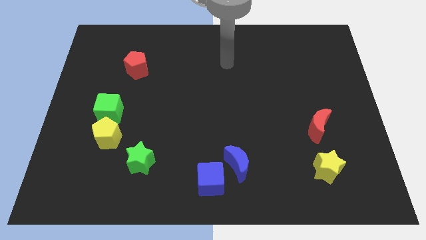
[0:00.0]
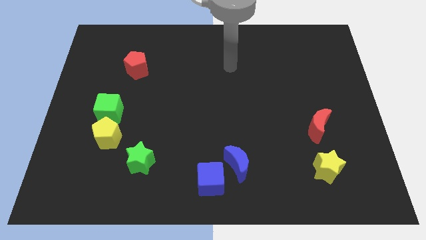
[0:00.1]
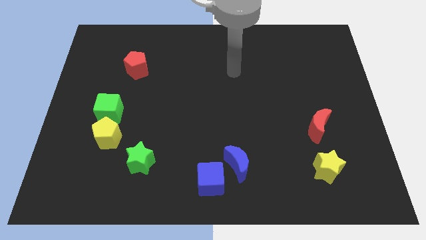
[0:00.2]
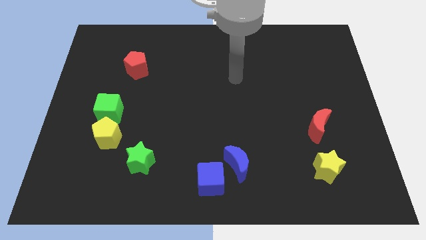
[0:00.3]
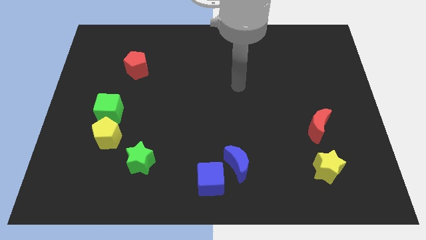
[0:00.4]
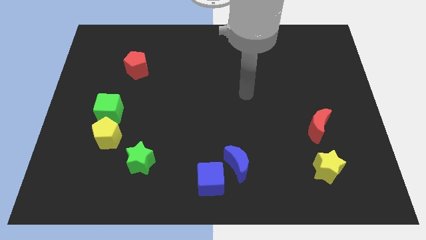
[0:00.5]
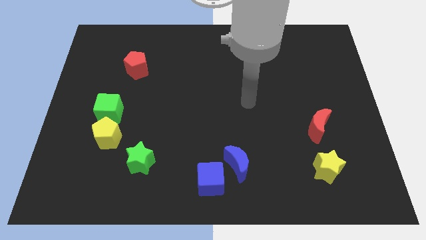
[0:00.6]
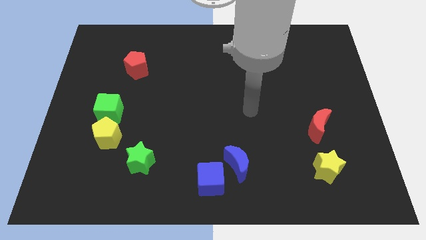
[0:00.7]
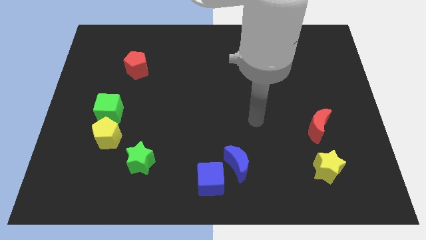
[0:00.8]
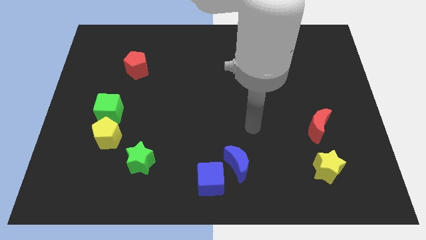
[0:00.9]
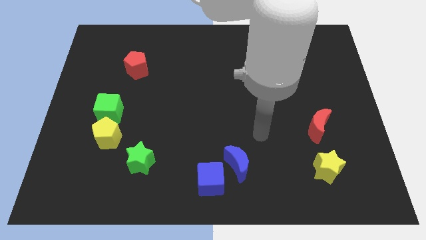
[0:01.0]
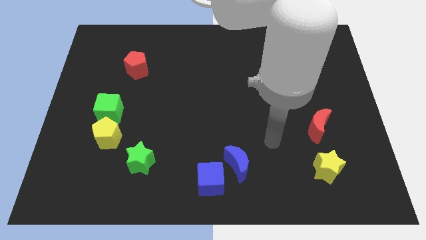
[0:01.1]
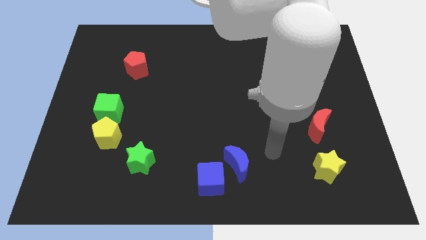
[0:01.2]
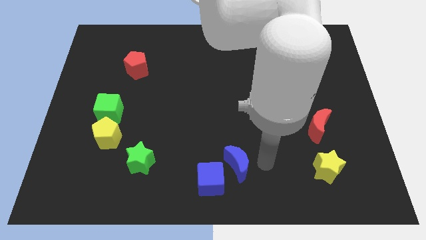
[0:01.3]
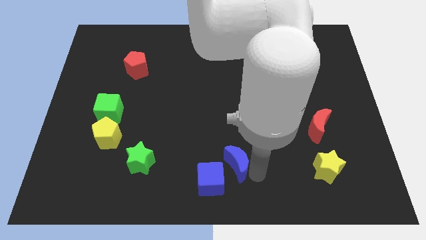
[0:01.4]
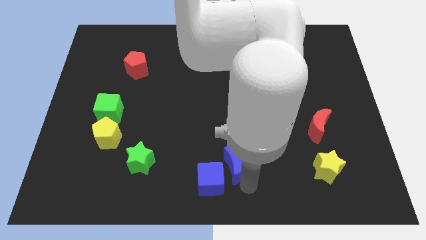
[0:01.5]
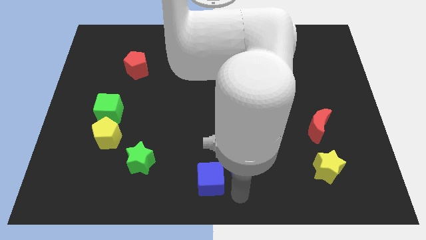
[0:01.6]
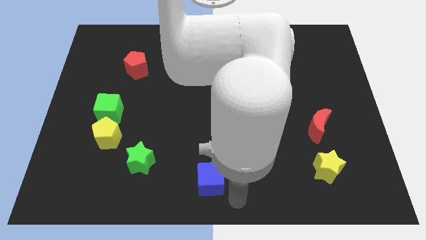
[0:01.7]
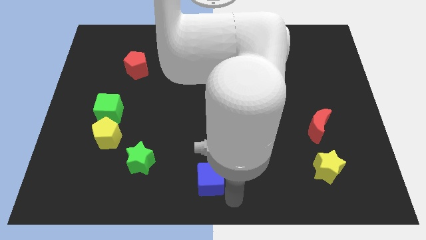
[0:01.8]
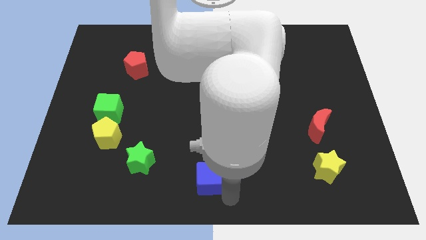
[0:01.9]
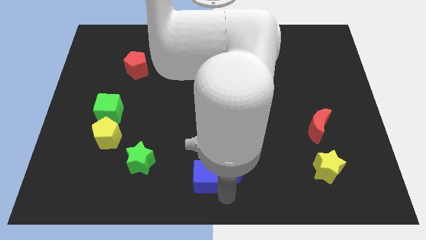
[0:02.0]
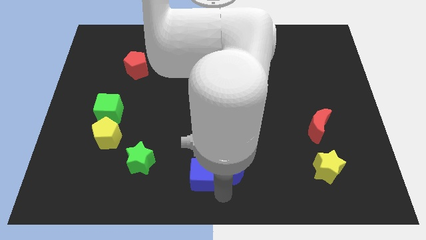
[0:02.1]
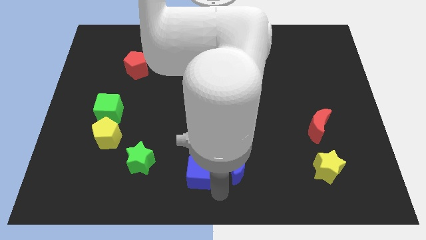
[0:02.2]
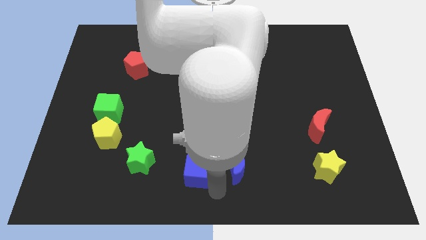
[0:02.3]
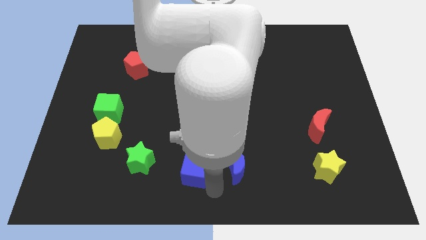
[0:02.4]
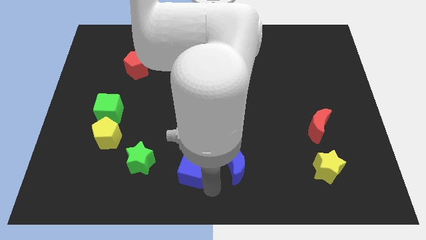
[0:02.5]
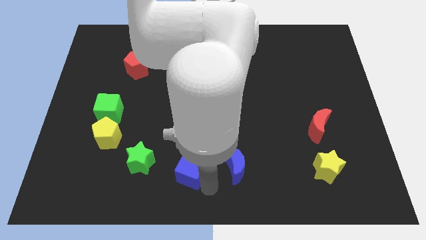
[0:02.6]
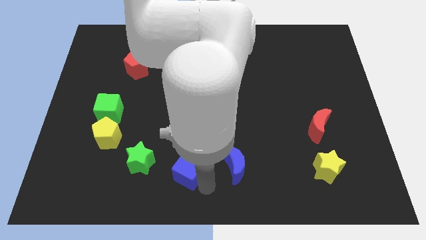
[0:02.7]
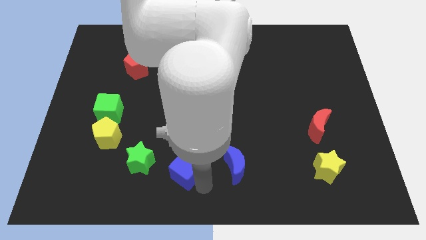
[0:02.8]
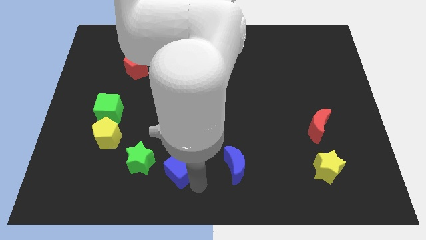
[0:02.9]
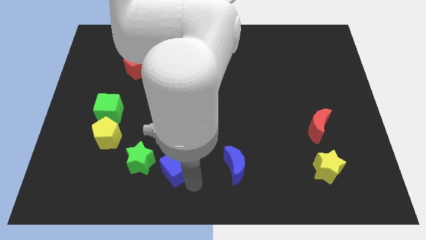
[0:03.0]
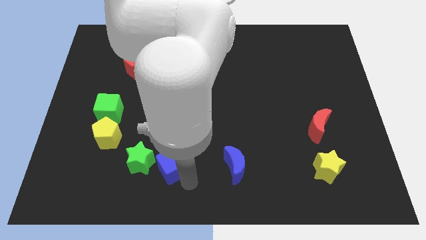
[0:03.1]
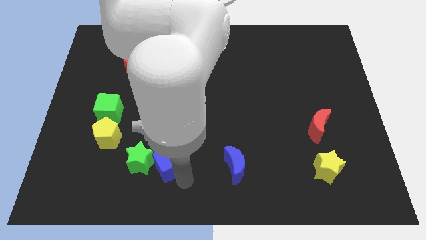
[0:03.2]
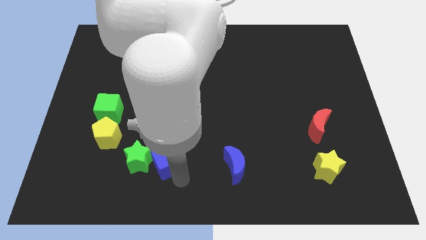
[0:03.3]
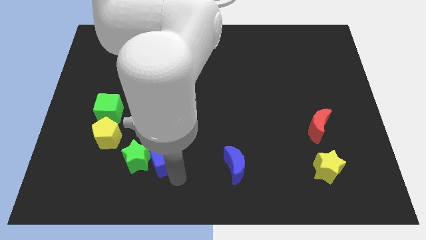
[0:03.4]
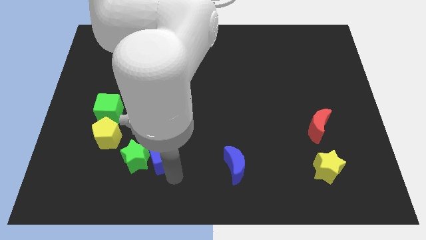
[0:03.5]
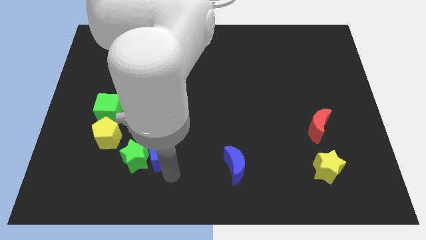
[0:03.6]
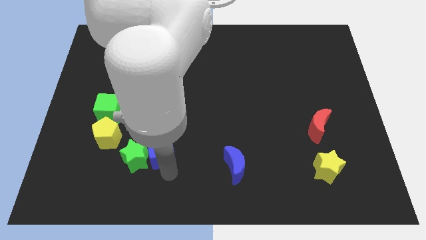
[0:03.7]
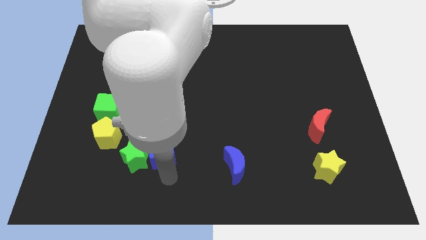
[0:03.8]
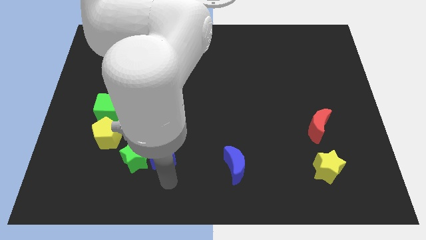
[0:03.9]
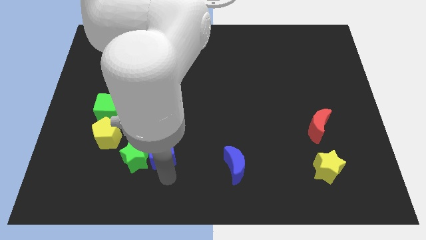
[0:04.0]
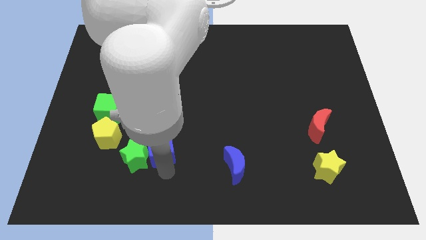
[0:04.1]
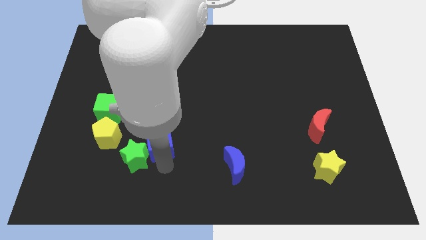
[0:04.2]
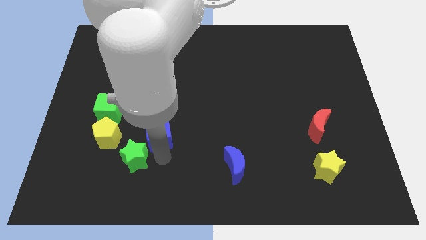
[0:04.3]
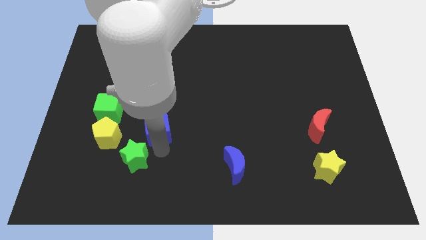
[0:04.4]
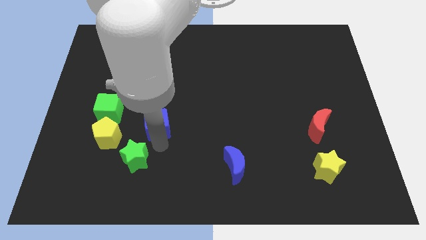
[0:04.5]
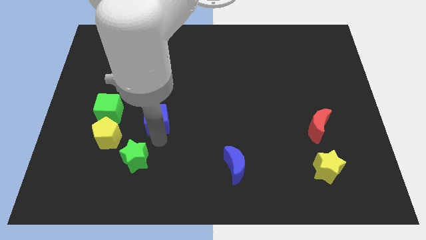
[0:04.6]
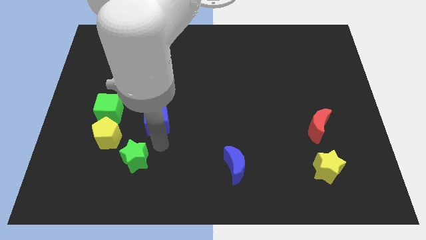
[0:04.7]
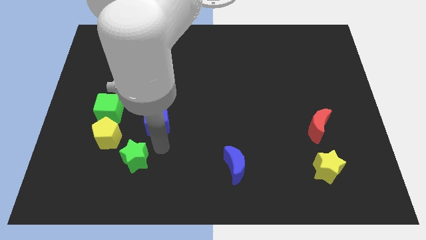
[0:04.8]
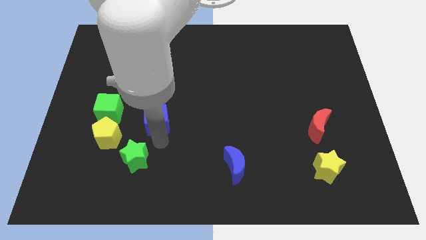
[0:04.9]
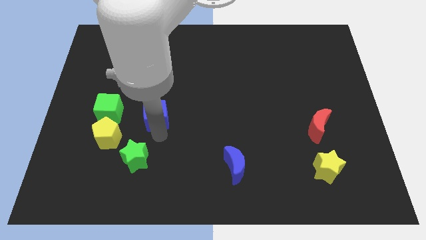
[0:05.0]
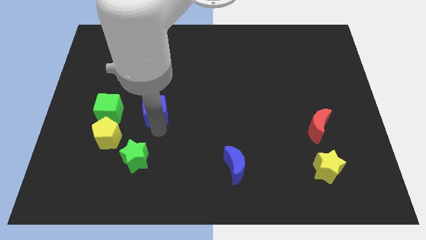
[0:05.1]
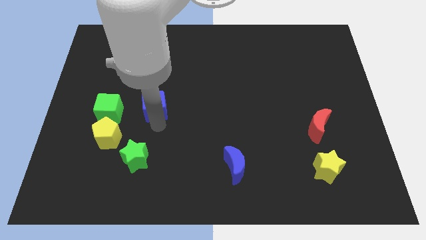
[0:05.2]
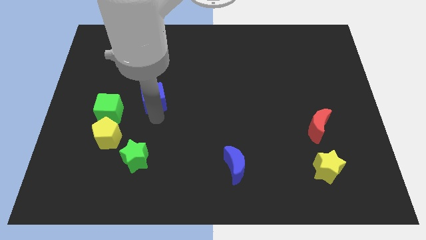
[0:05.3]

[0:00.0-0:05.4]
move the blue cube diagonally down and to the right of the red pentagon

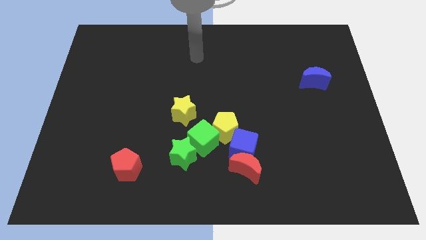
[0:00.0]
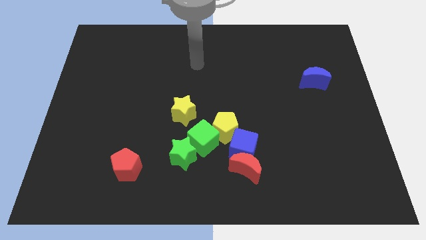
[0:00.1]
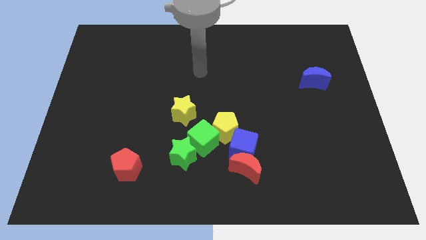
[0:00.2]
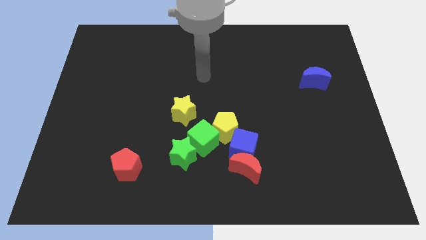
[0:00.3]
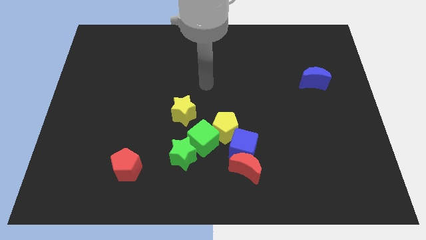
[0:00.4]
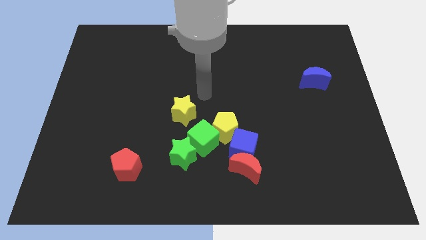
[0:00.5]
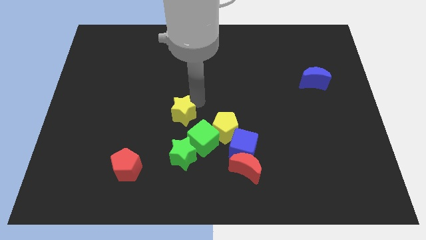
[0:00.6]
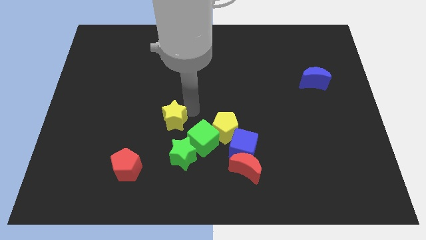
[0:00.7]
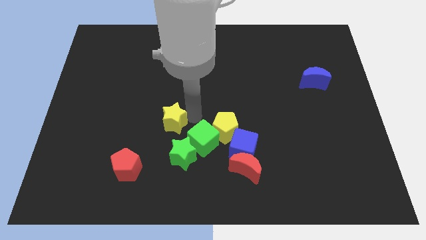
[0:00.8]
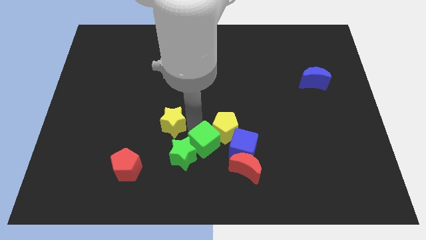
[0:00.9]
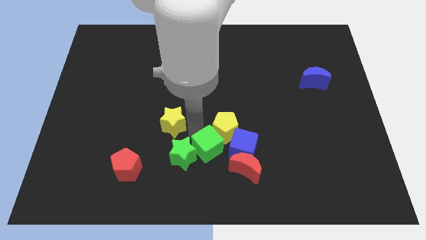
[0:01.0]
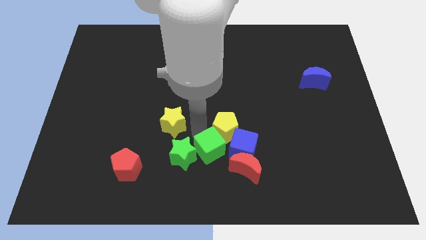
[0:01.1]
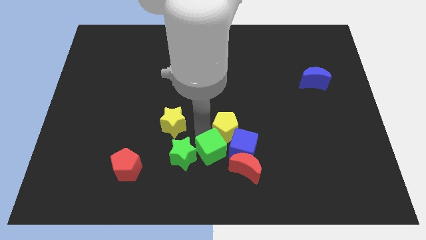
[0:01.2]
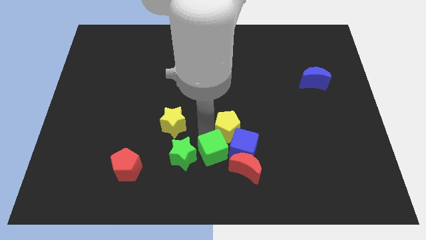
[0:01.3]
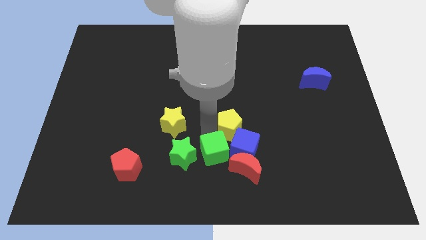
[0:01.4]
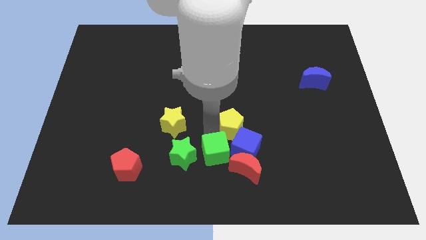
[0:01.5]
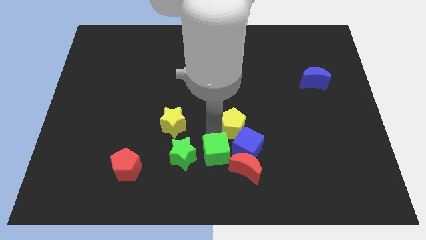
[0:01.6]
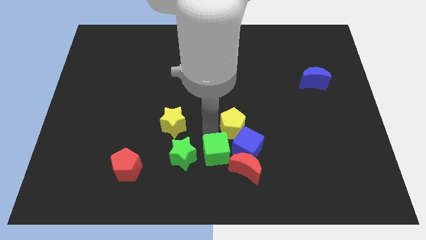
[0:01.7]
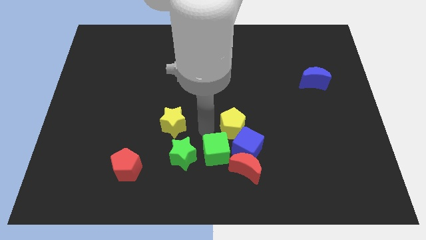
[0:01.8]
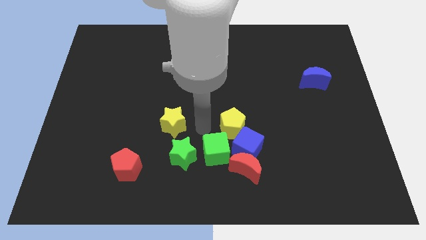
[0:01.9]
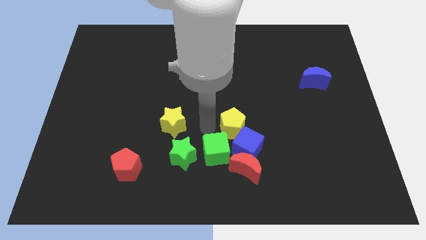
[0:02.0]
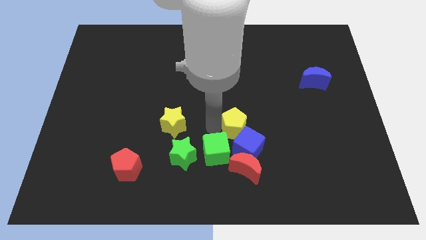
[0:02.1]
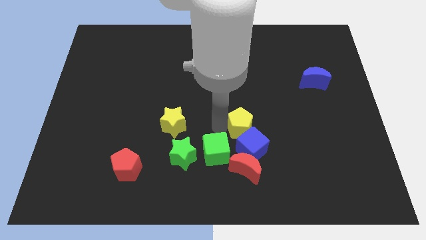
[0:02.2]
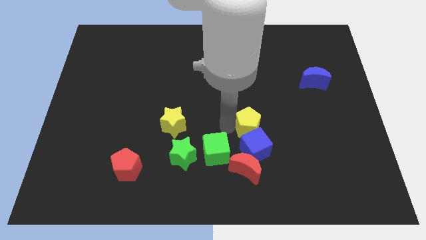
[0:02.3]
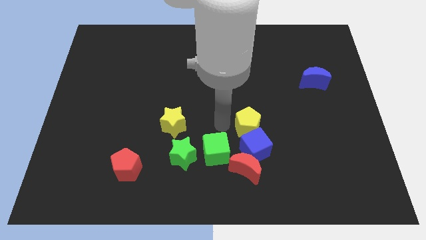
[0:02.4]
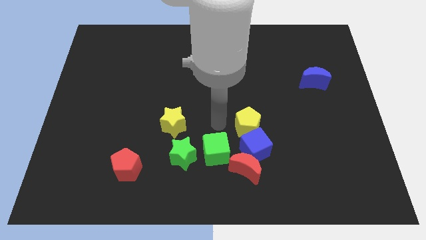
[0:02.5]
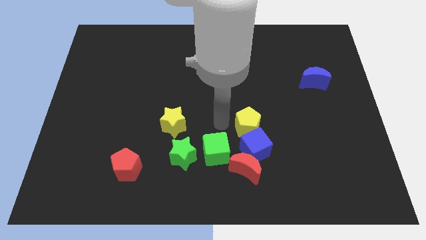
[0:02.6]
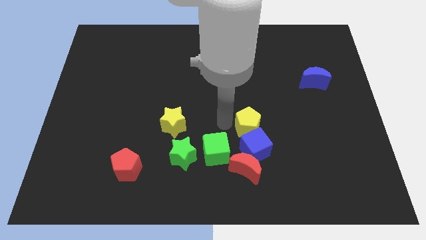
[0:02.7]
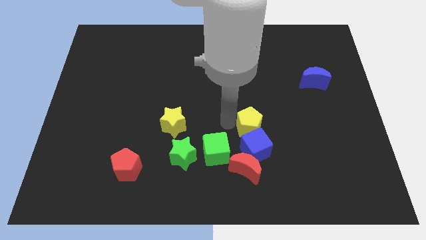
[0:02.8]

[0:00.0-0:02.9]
slide the yellow pentagon diagonally up and to the right of the blue cube

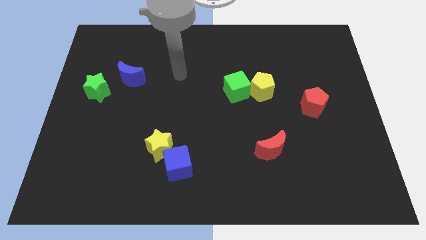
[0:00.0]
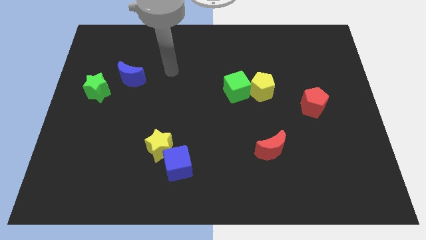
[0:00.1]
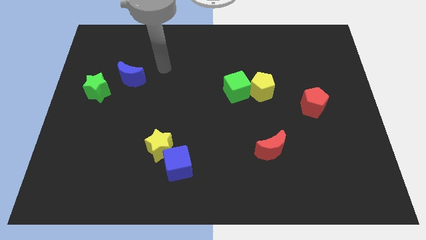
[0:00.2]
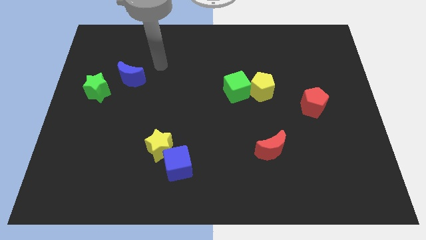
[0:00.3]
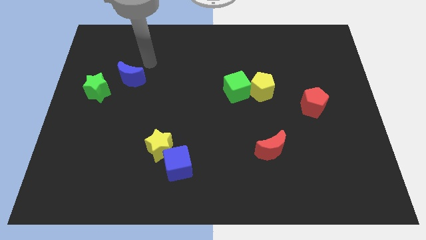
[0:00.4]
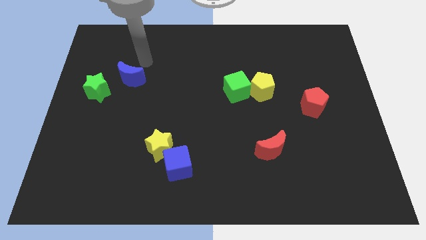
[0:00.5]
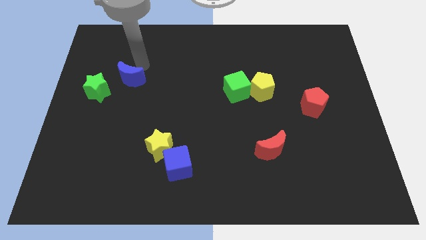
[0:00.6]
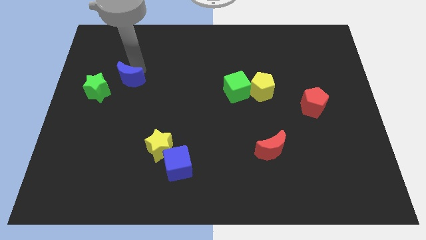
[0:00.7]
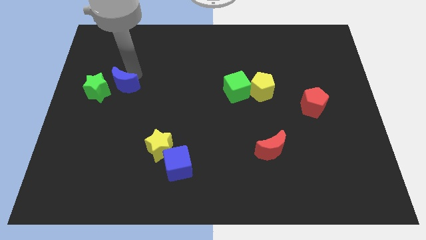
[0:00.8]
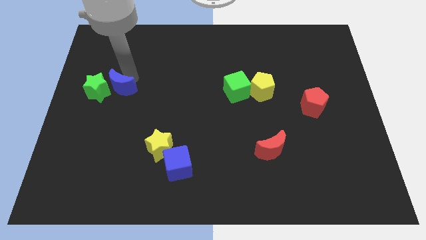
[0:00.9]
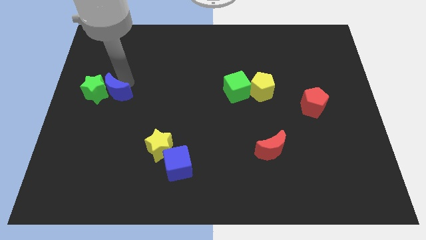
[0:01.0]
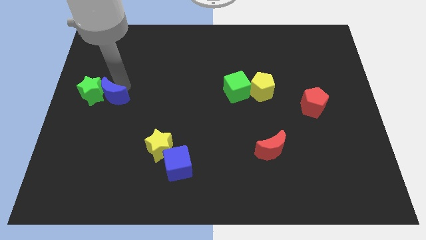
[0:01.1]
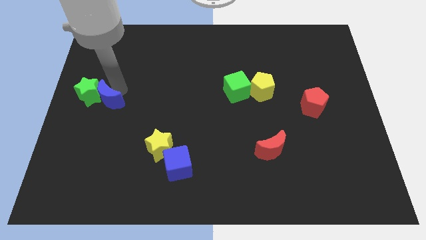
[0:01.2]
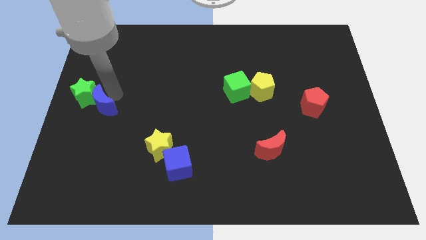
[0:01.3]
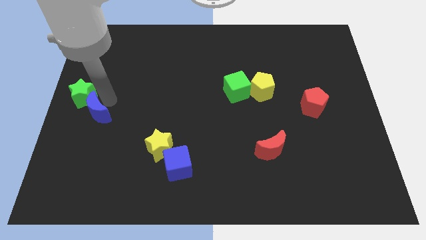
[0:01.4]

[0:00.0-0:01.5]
push the blue moon to the bottom of the green star
